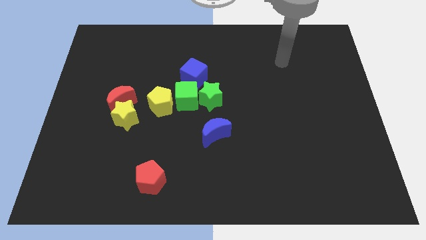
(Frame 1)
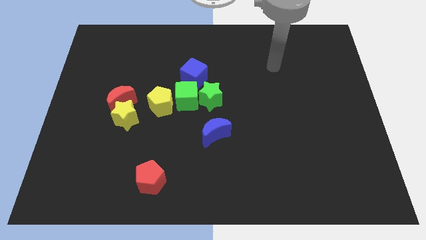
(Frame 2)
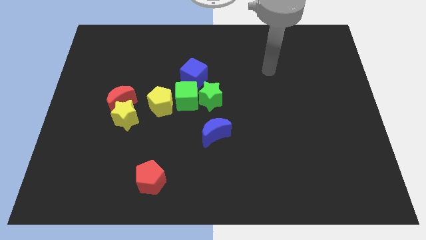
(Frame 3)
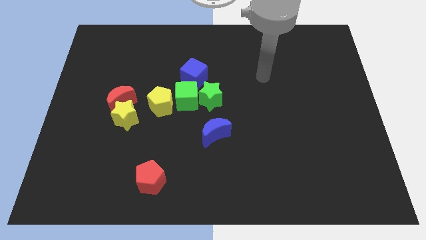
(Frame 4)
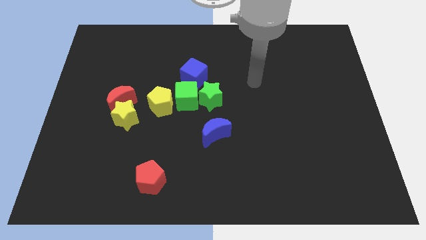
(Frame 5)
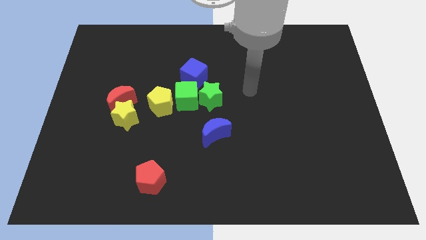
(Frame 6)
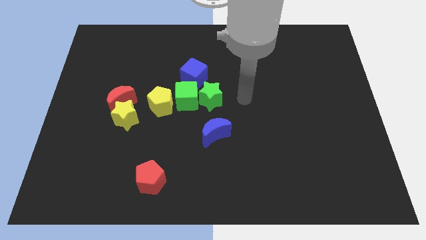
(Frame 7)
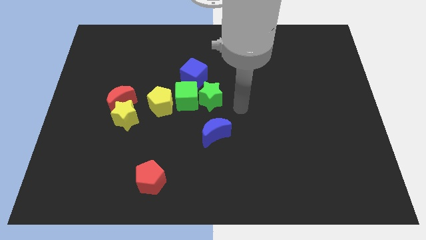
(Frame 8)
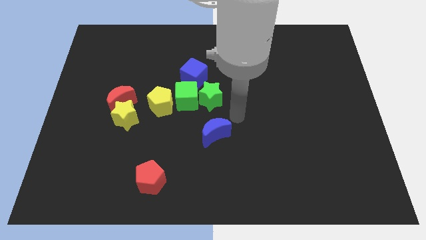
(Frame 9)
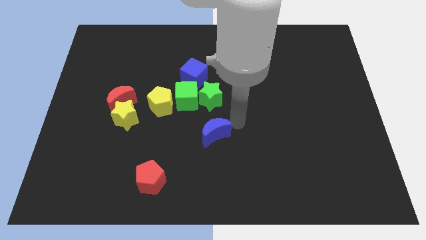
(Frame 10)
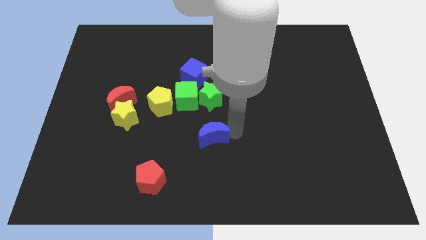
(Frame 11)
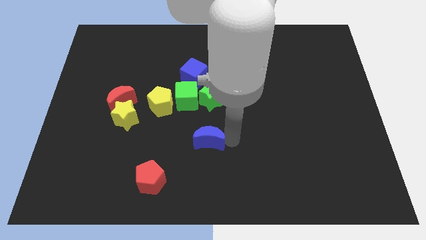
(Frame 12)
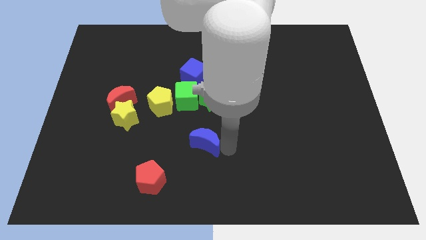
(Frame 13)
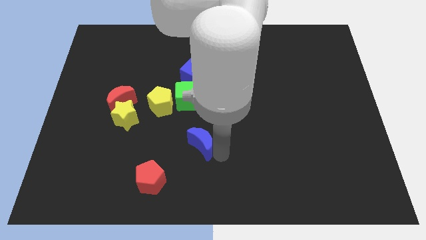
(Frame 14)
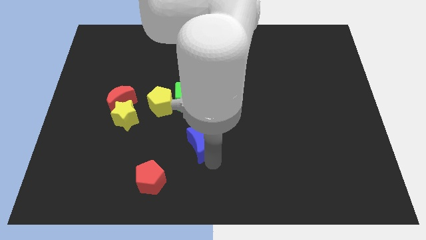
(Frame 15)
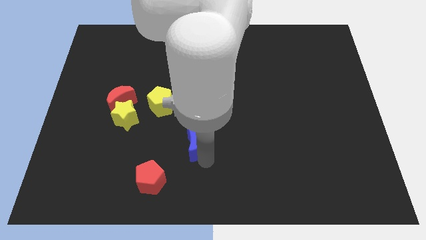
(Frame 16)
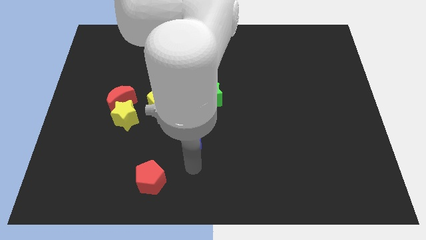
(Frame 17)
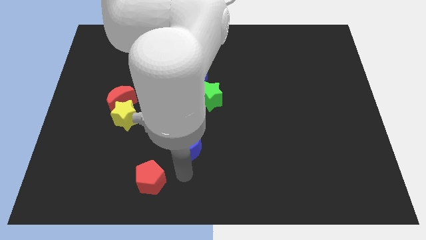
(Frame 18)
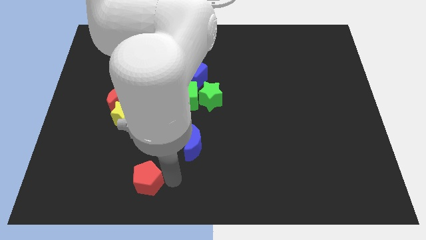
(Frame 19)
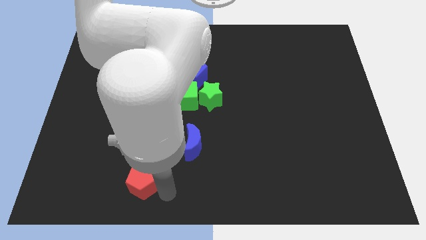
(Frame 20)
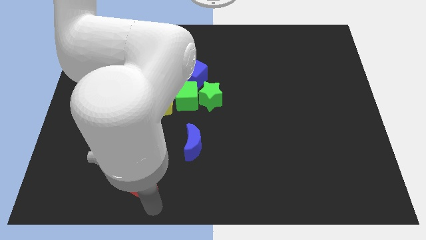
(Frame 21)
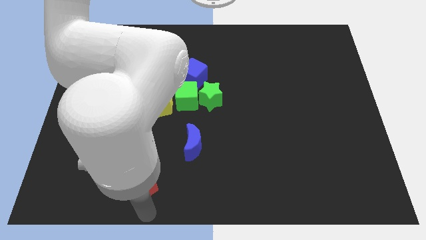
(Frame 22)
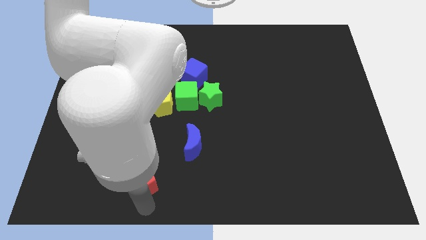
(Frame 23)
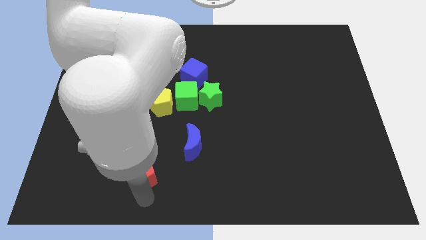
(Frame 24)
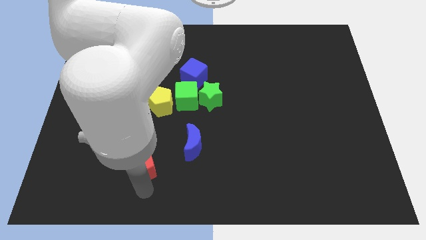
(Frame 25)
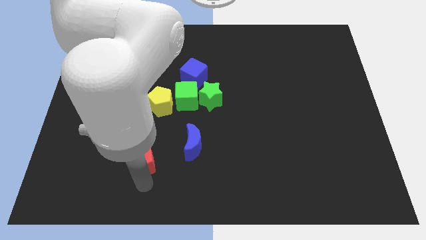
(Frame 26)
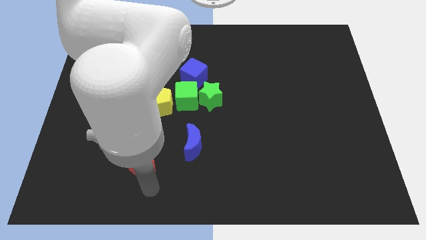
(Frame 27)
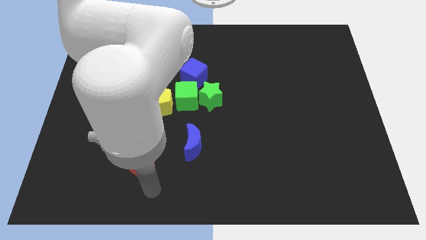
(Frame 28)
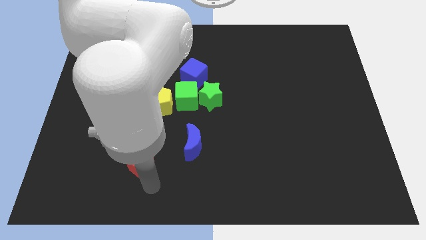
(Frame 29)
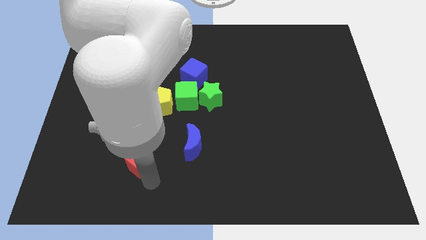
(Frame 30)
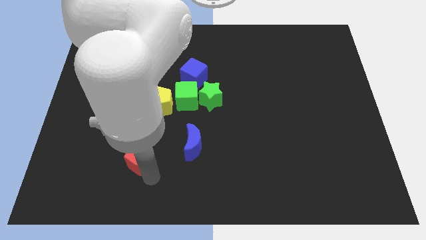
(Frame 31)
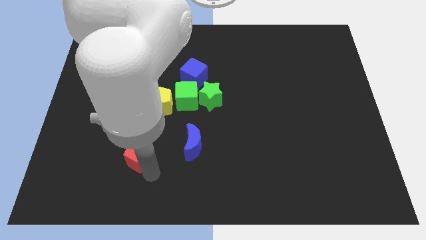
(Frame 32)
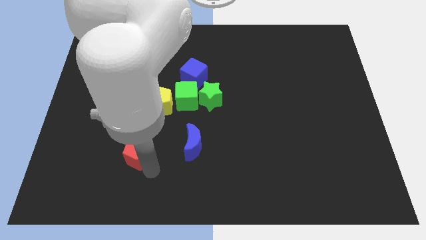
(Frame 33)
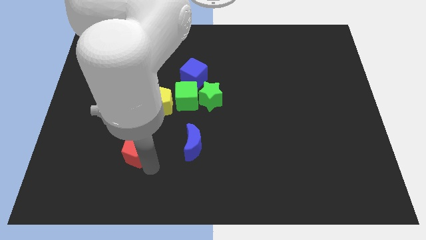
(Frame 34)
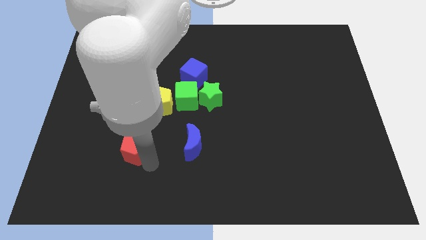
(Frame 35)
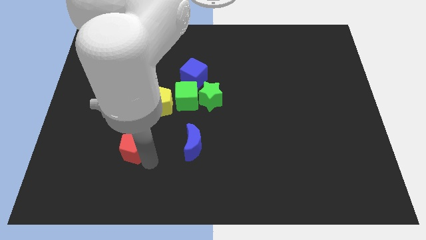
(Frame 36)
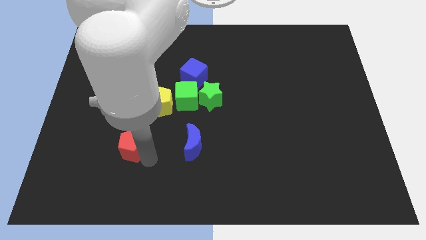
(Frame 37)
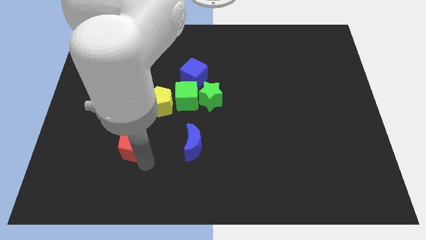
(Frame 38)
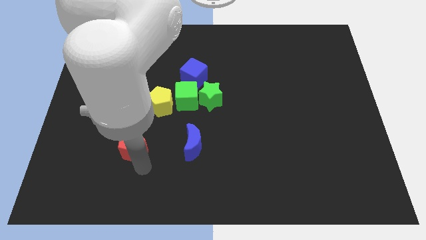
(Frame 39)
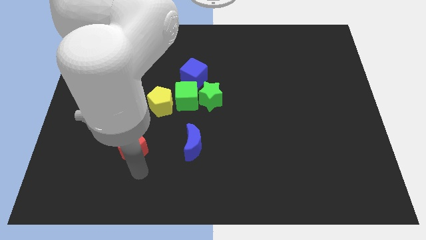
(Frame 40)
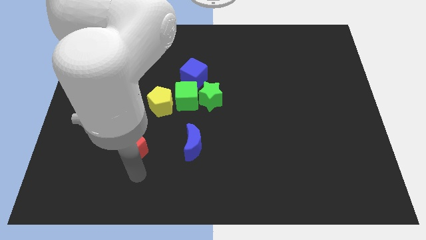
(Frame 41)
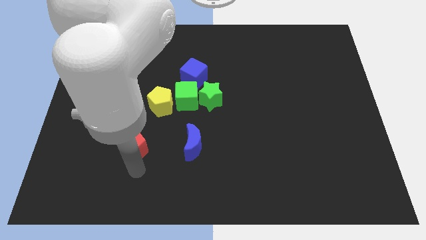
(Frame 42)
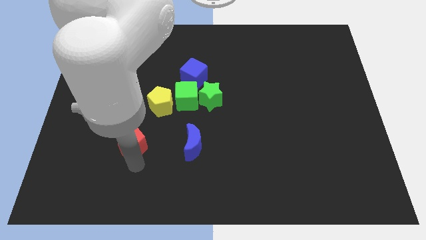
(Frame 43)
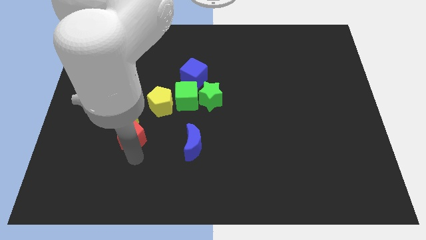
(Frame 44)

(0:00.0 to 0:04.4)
move the red pentagon next to the yellow star

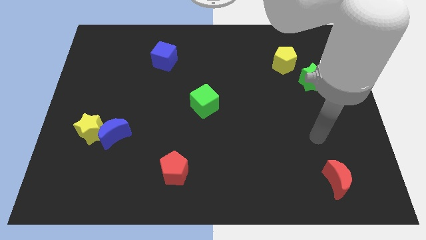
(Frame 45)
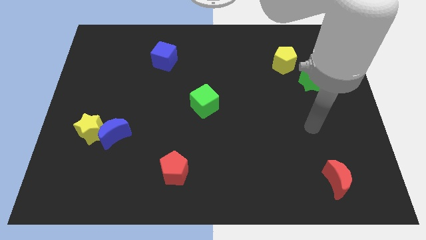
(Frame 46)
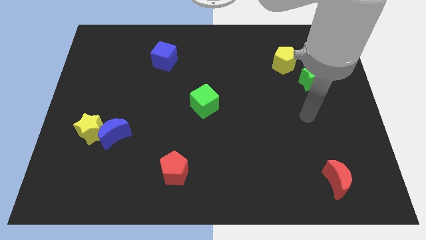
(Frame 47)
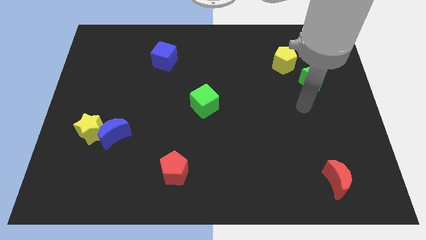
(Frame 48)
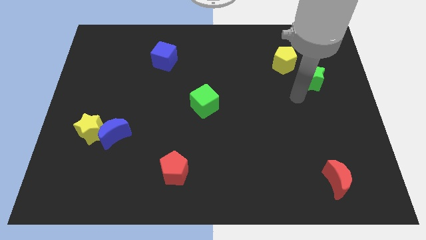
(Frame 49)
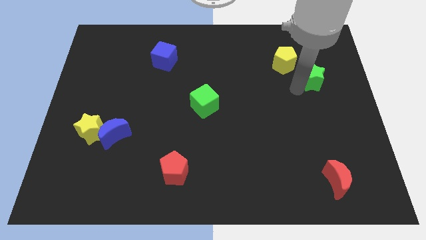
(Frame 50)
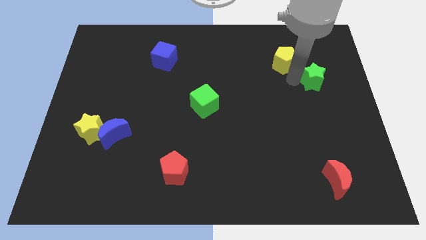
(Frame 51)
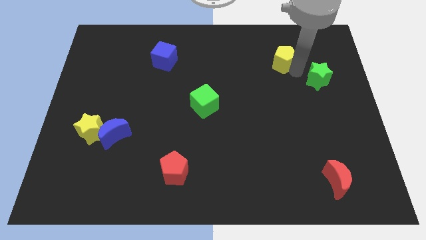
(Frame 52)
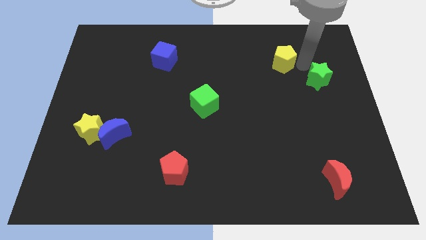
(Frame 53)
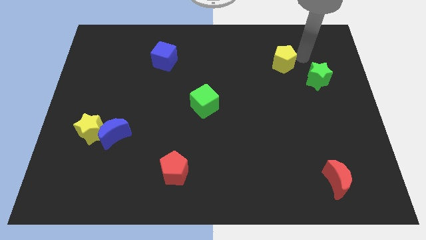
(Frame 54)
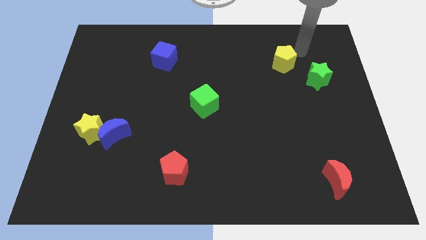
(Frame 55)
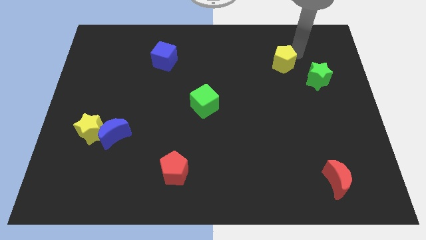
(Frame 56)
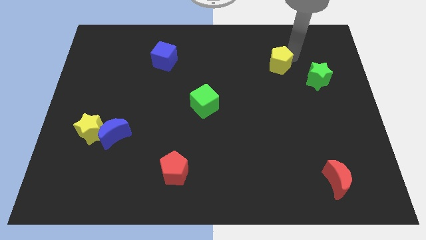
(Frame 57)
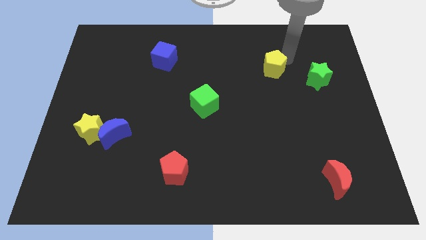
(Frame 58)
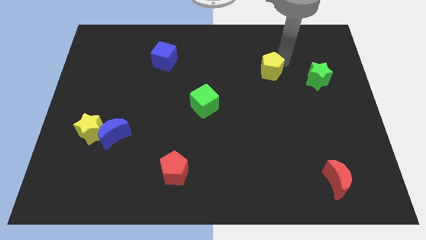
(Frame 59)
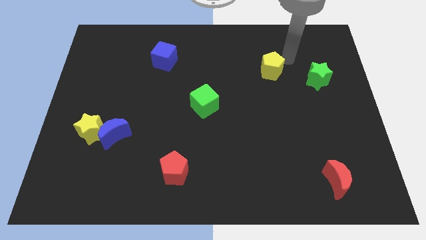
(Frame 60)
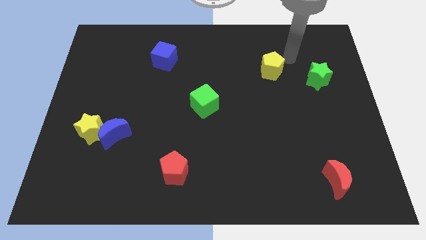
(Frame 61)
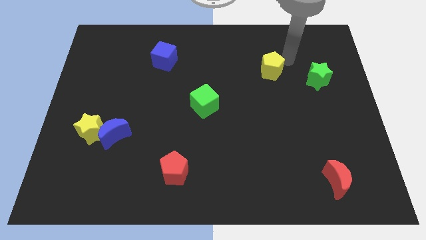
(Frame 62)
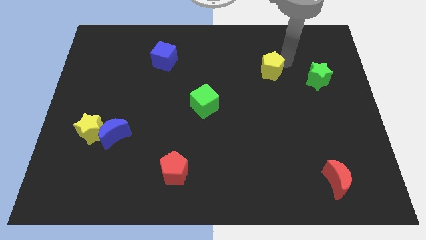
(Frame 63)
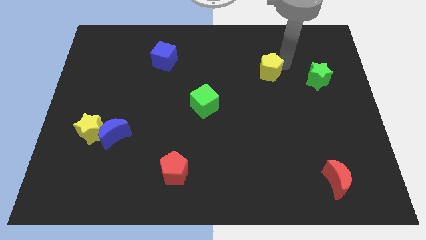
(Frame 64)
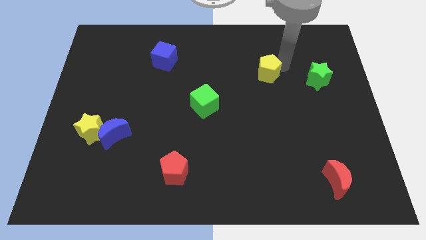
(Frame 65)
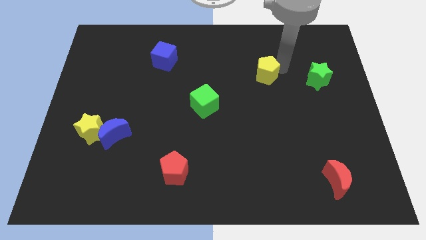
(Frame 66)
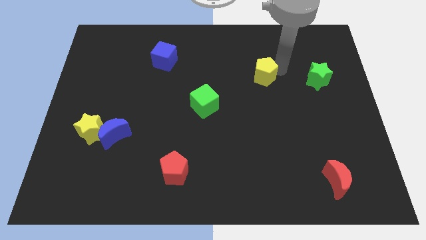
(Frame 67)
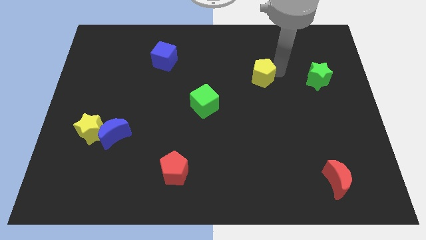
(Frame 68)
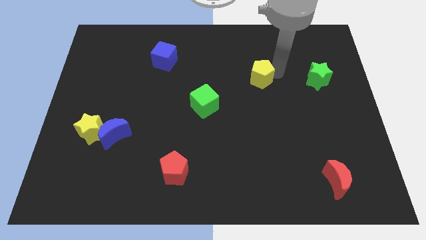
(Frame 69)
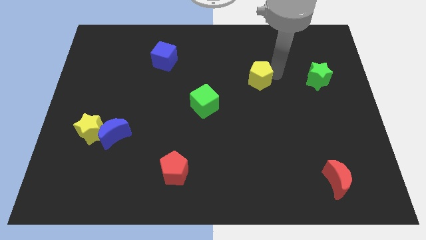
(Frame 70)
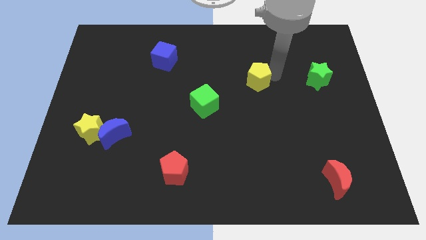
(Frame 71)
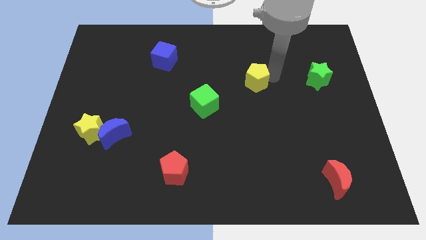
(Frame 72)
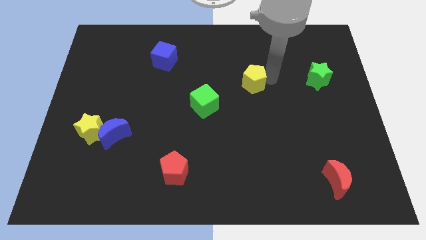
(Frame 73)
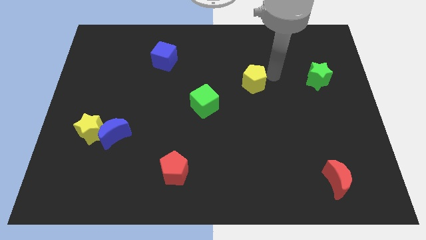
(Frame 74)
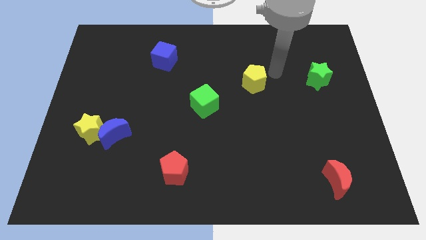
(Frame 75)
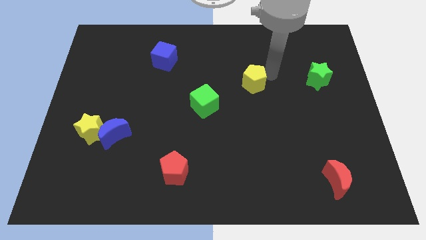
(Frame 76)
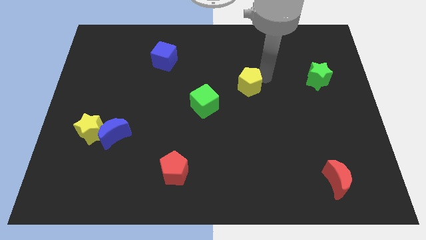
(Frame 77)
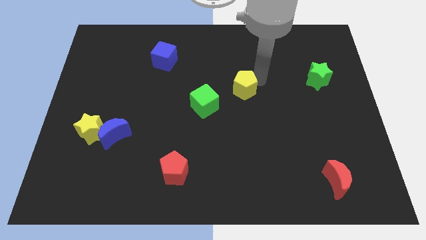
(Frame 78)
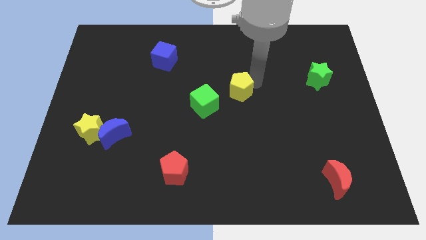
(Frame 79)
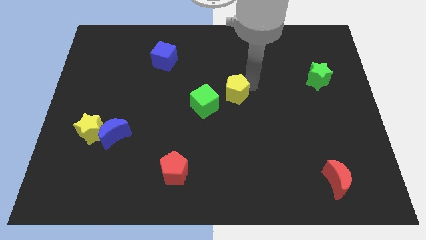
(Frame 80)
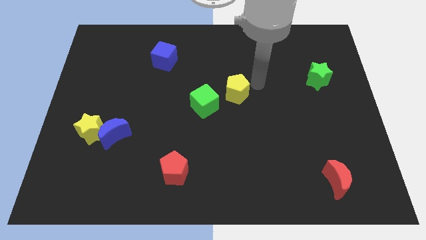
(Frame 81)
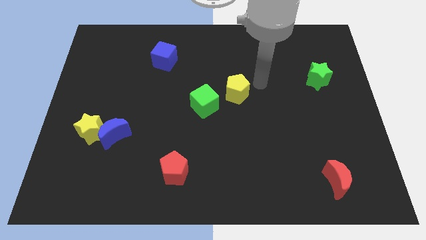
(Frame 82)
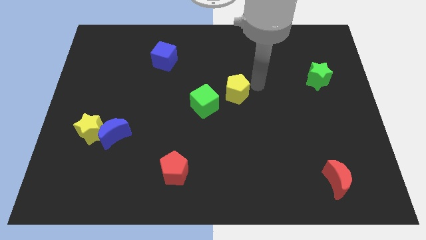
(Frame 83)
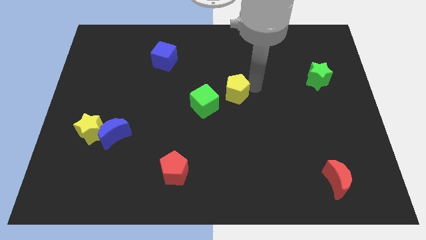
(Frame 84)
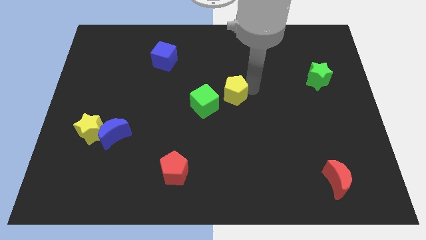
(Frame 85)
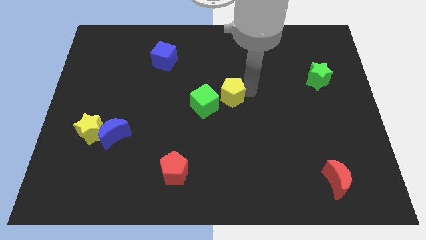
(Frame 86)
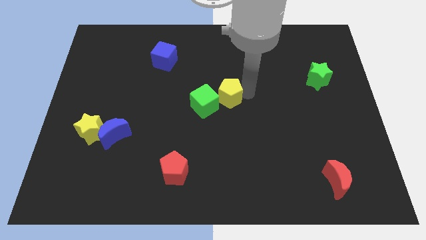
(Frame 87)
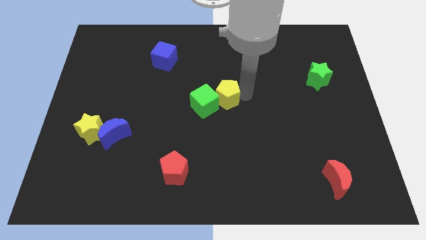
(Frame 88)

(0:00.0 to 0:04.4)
move the yellow pentagon towards the green cube
